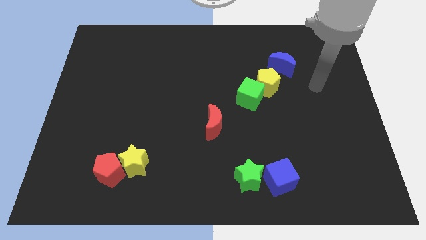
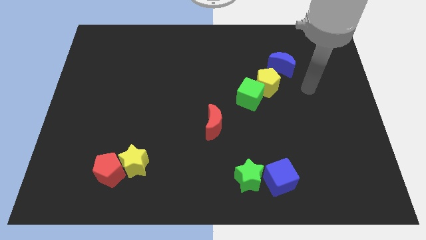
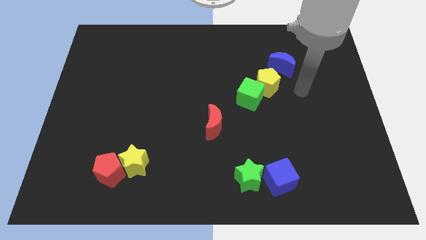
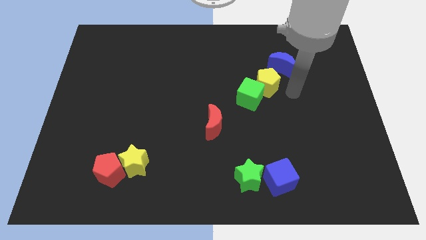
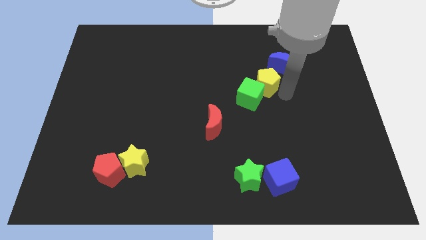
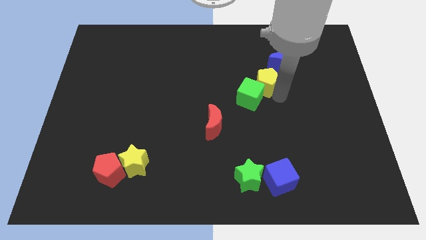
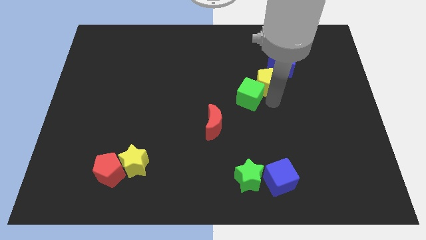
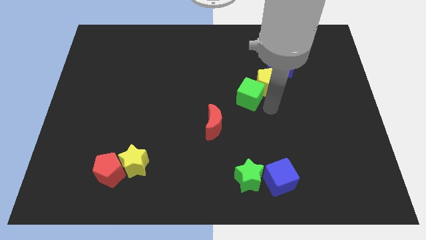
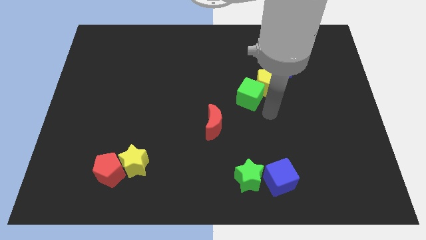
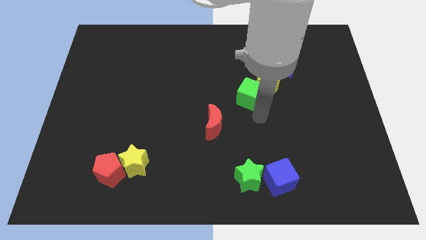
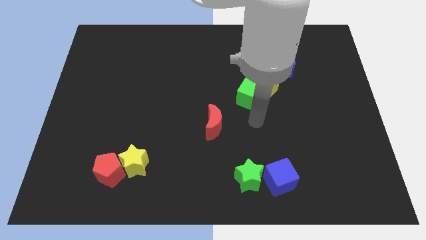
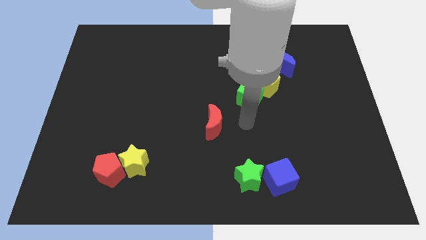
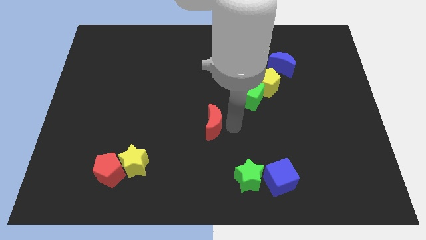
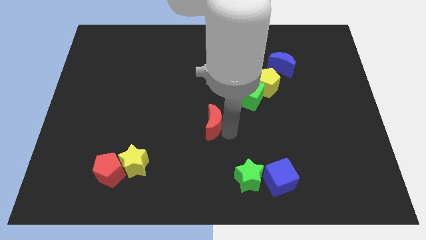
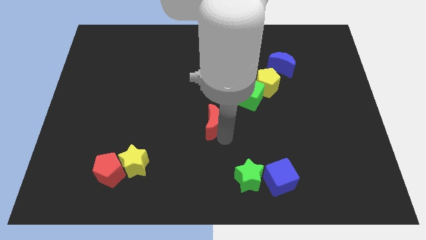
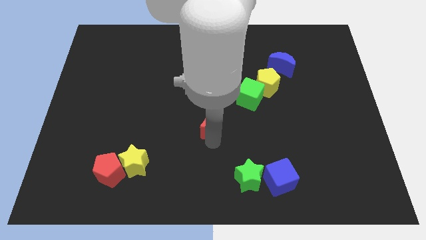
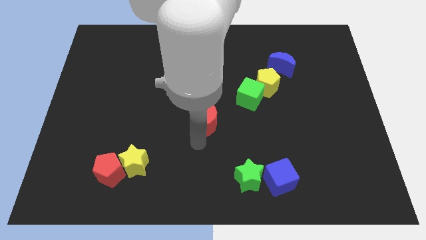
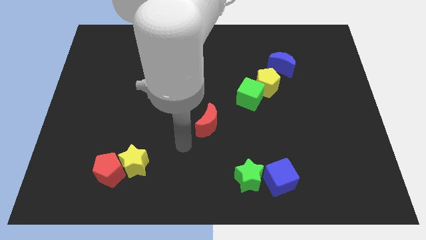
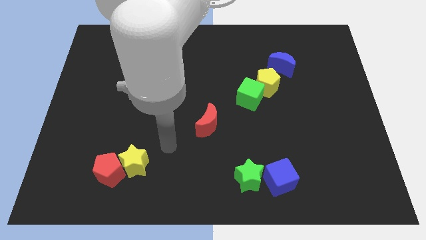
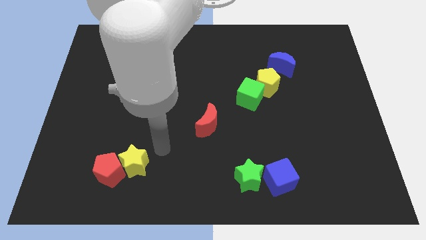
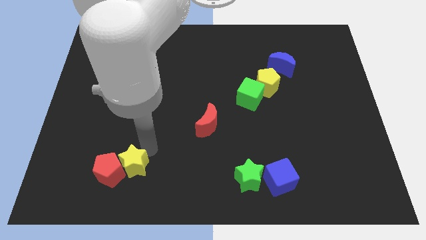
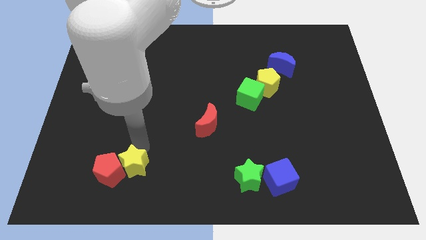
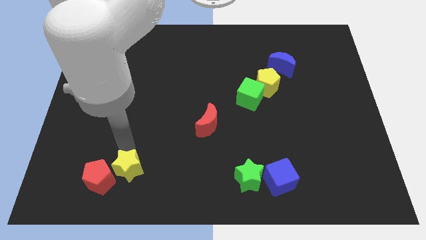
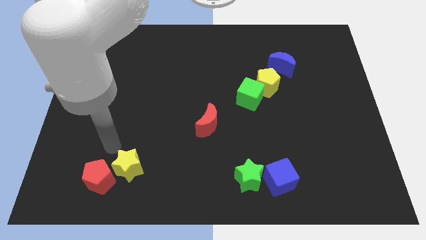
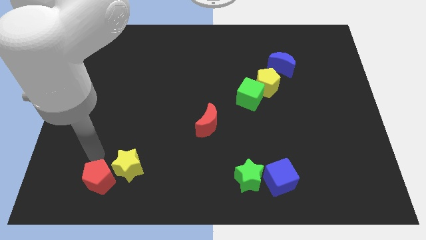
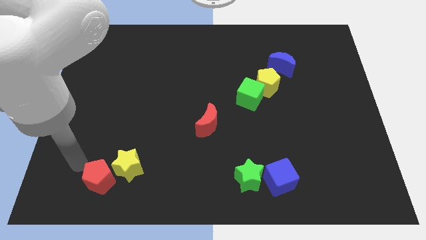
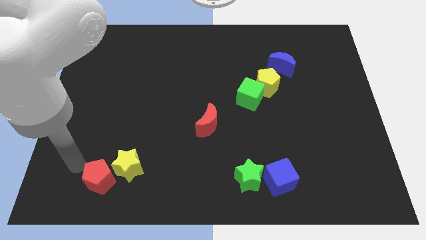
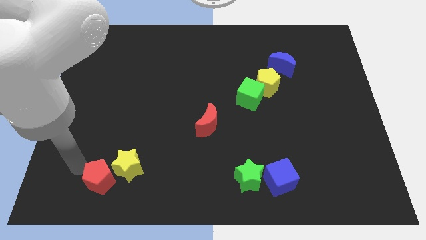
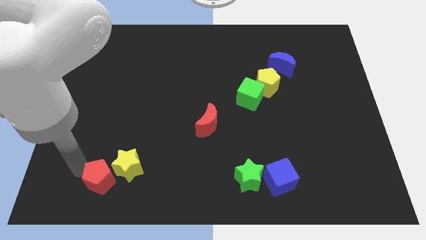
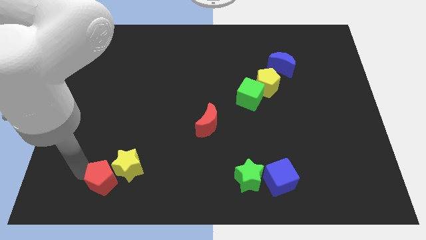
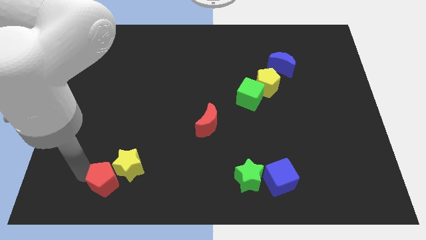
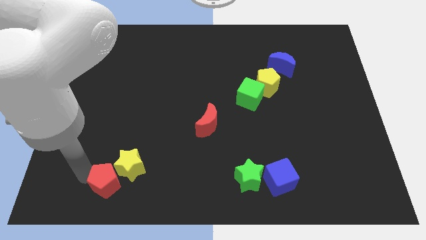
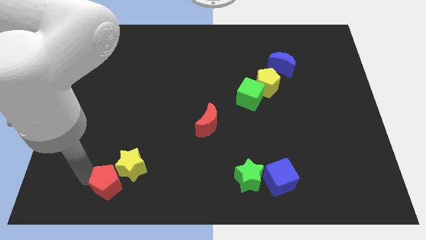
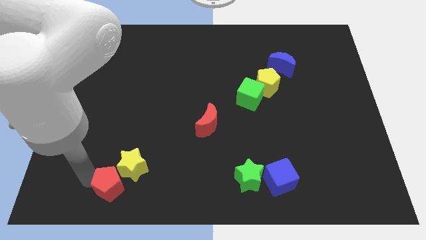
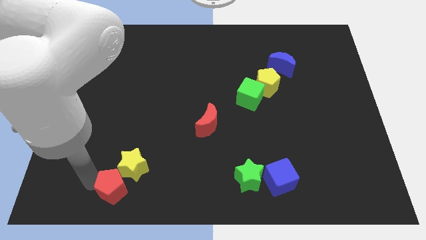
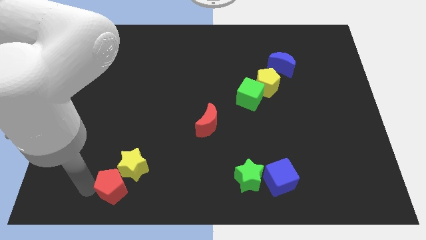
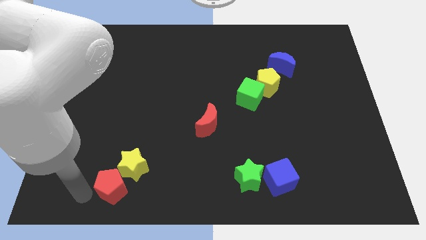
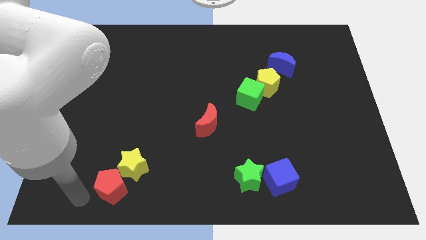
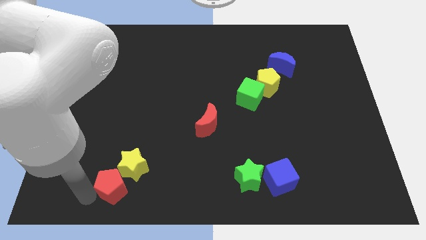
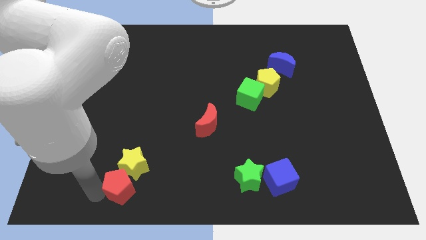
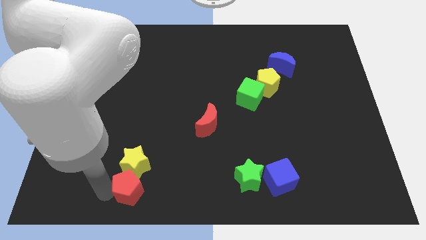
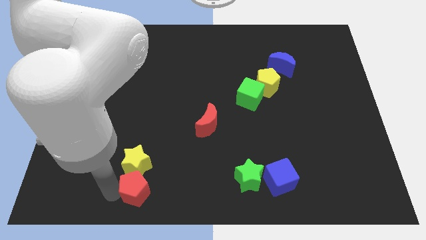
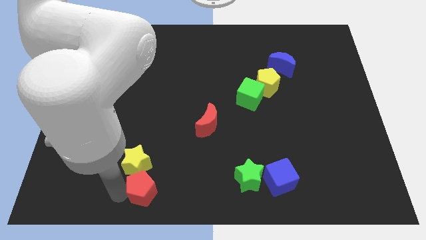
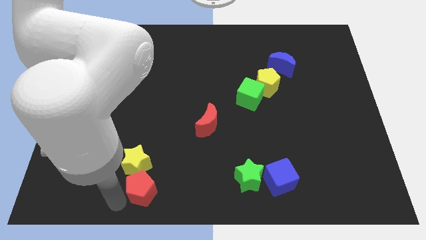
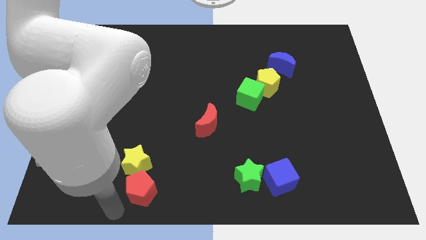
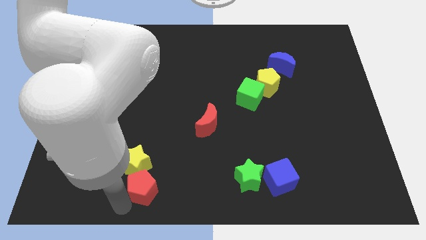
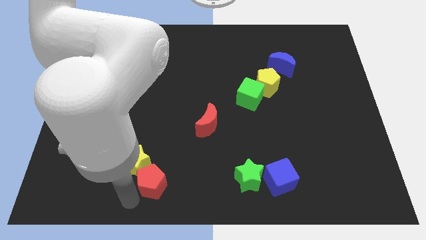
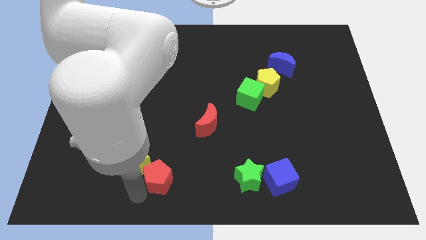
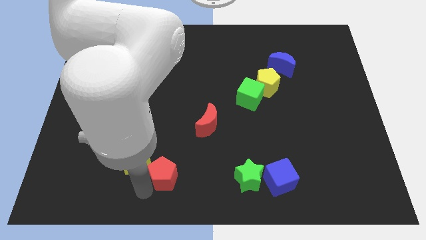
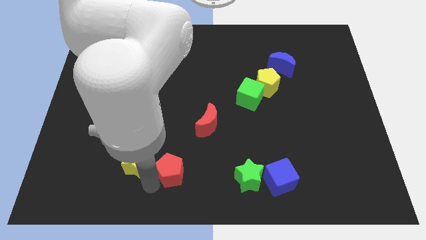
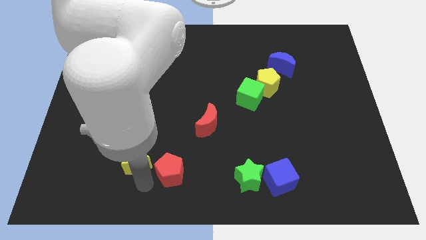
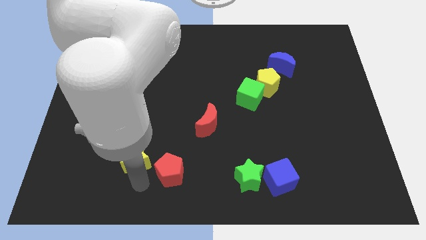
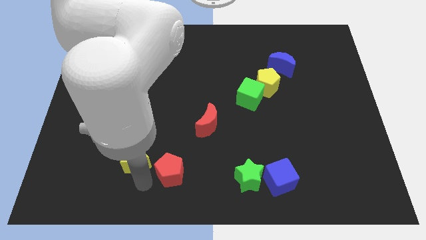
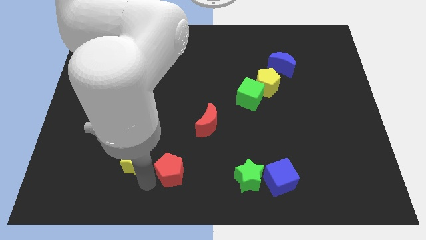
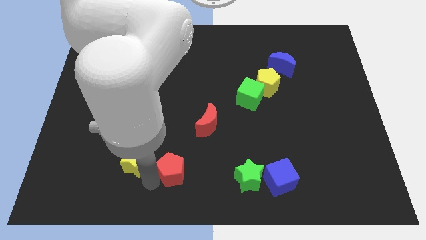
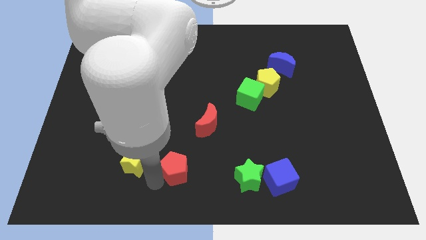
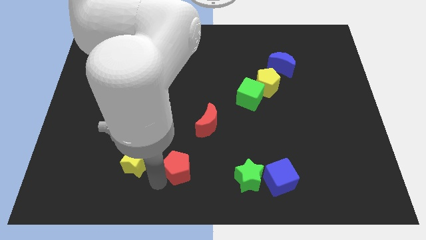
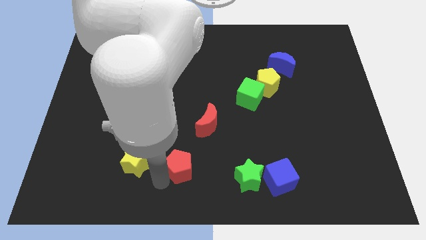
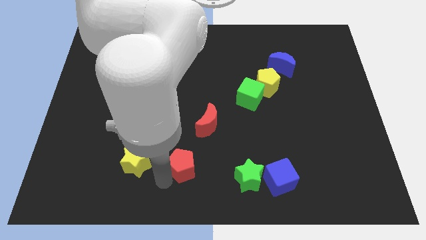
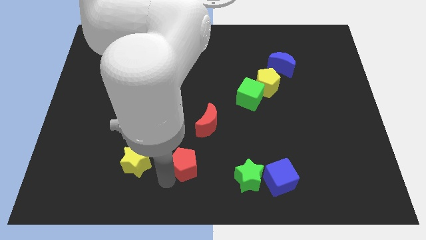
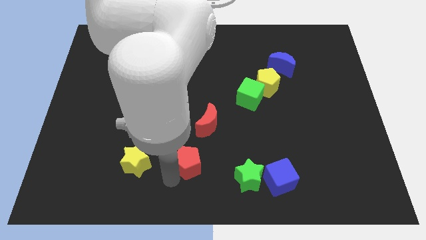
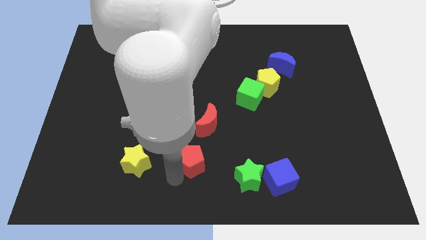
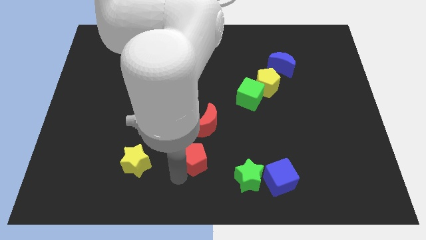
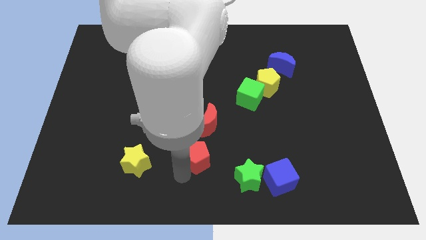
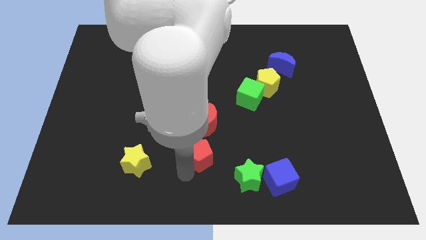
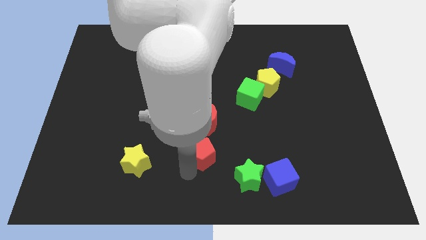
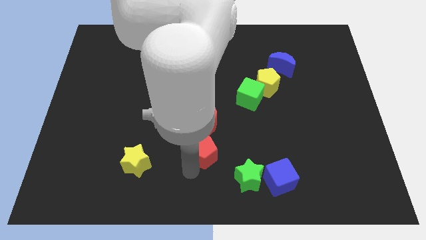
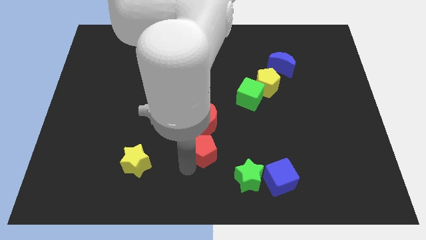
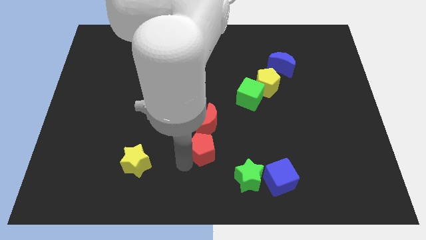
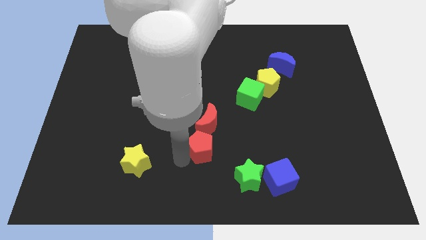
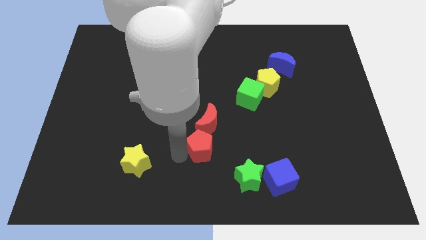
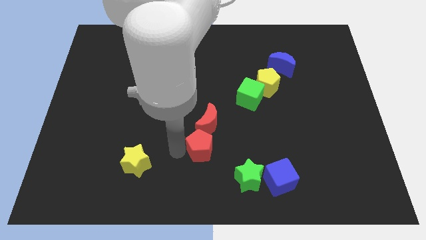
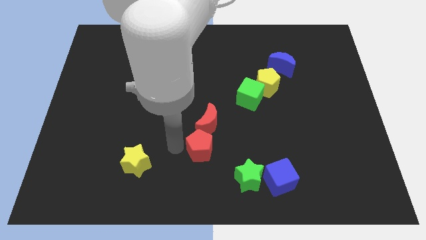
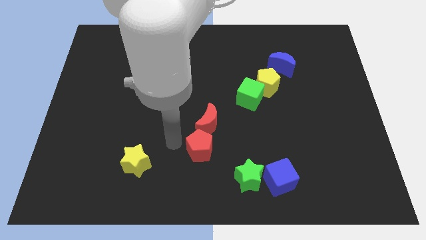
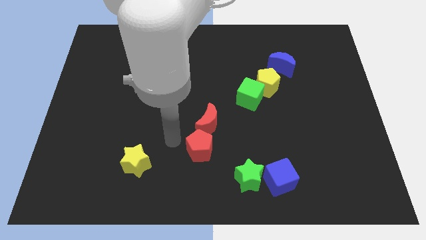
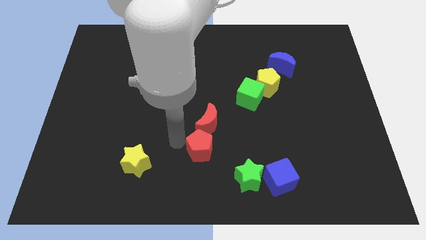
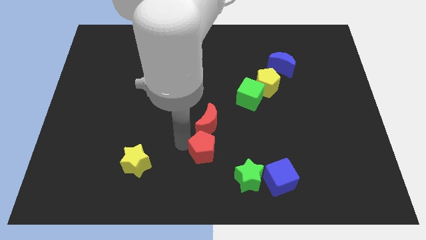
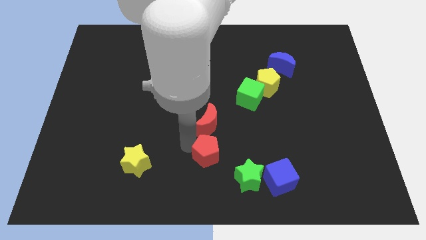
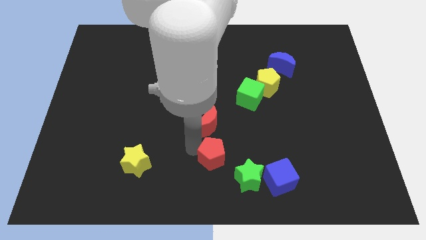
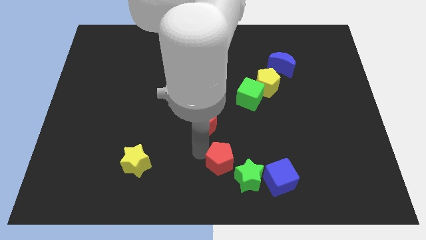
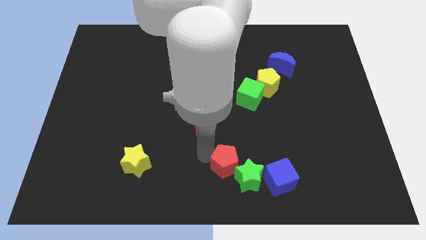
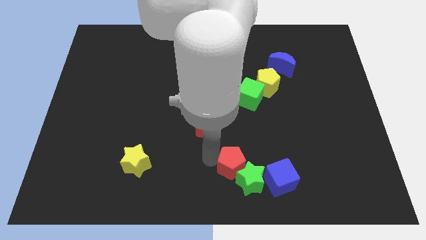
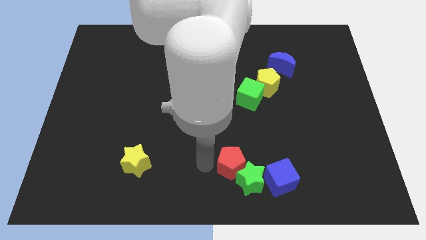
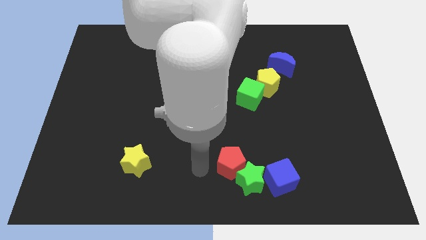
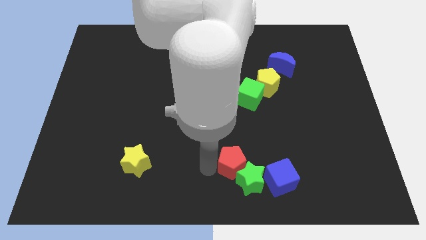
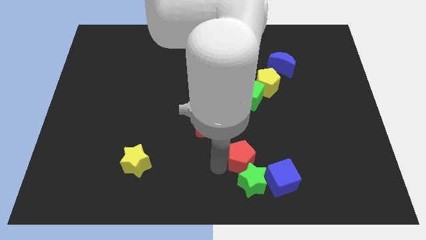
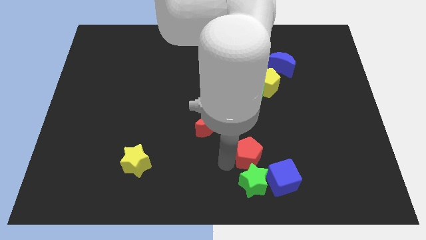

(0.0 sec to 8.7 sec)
push the red pentagon diagonally up and to the right of the green star

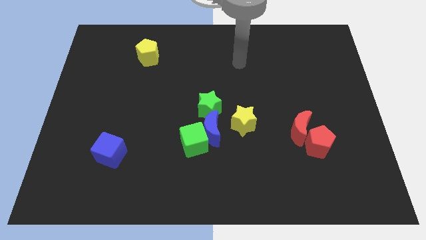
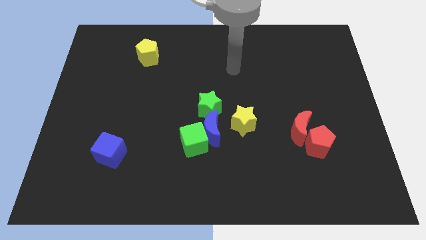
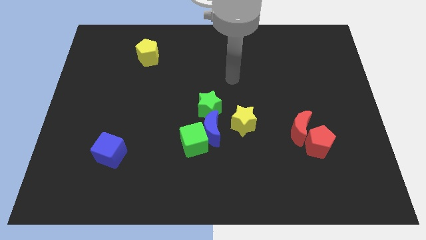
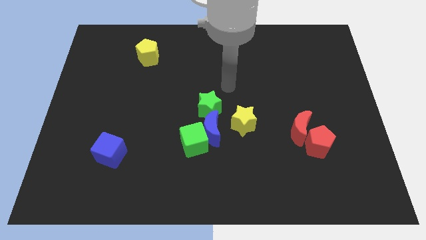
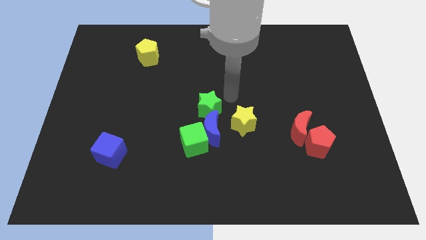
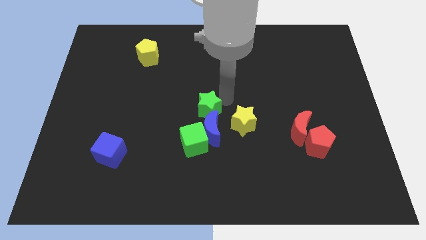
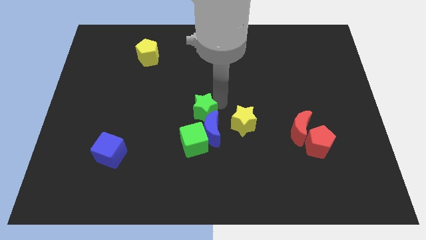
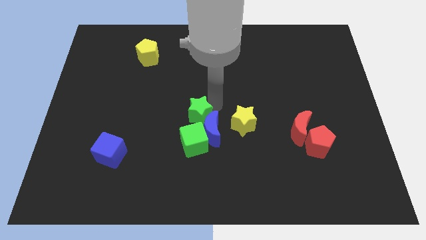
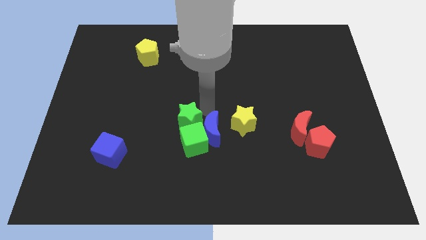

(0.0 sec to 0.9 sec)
push the green star to the left side of the blue moon
